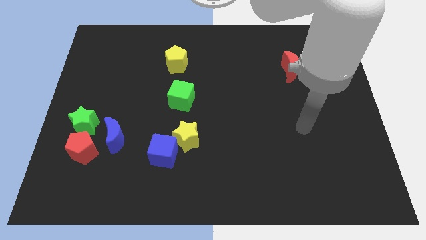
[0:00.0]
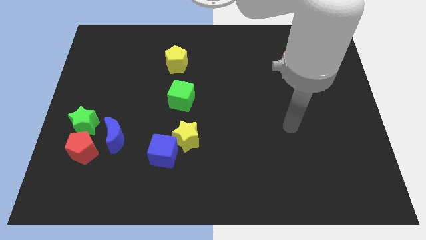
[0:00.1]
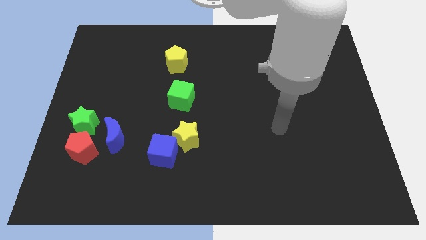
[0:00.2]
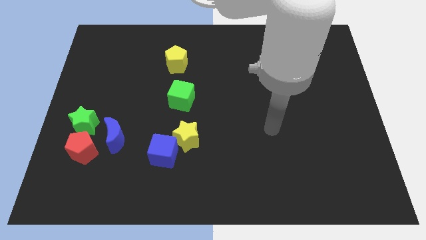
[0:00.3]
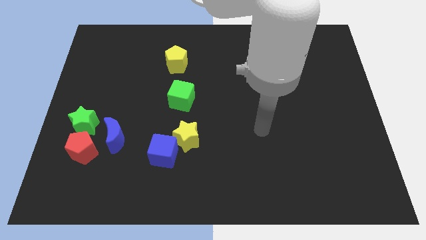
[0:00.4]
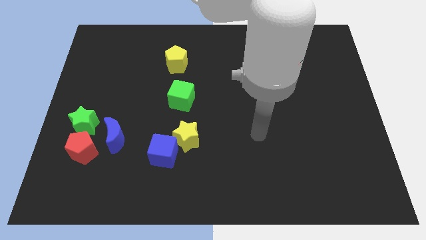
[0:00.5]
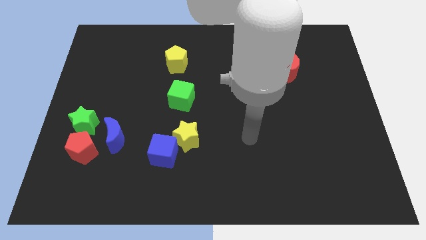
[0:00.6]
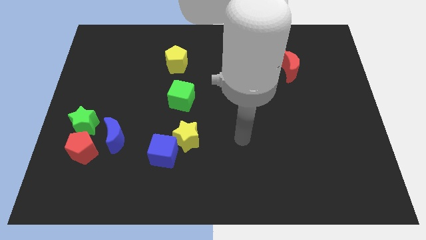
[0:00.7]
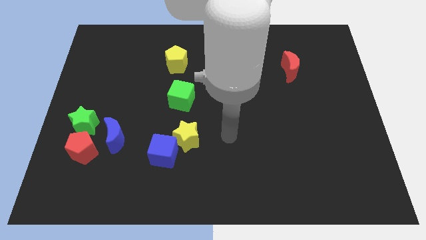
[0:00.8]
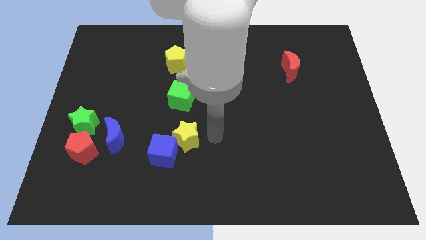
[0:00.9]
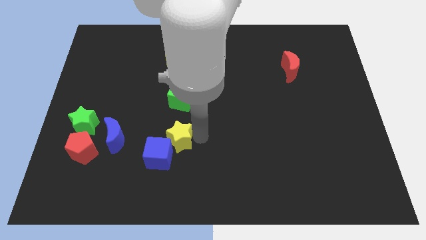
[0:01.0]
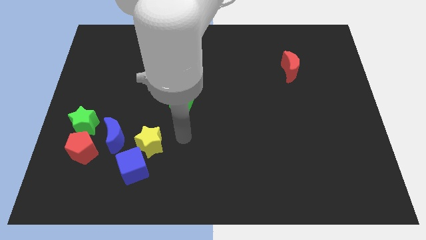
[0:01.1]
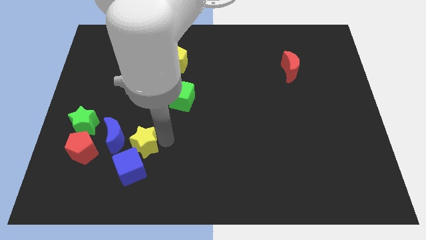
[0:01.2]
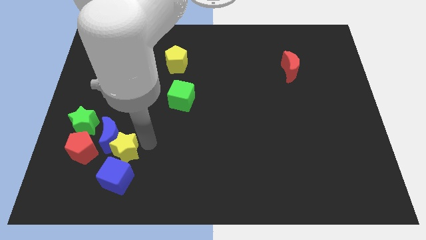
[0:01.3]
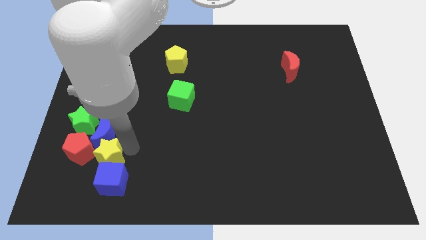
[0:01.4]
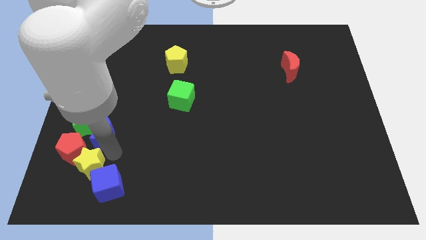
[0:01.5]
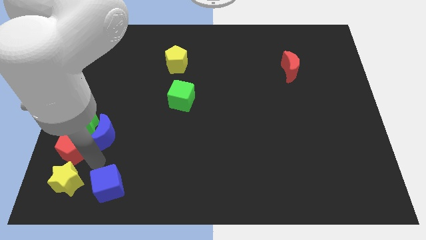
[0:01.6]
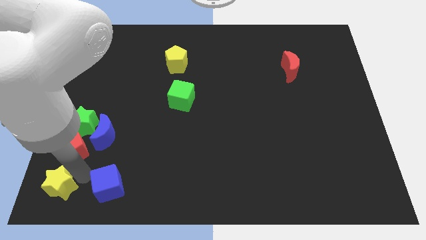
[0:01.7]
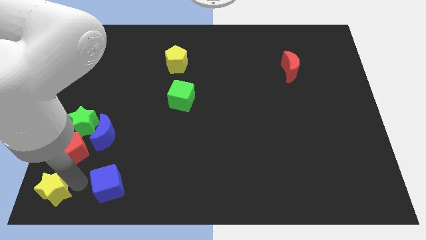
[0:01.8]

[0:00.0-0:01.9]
separate the blue cube from the yellow star

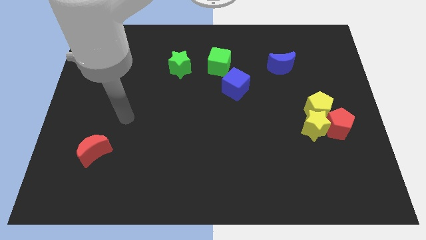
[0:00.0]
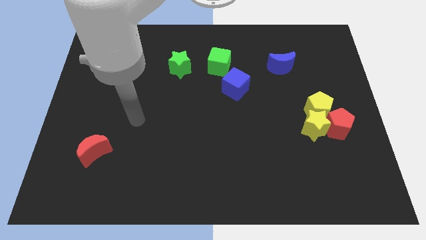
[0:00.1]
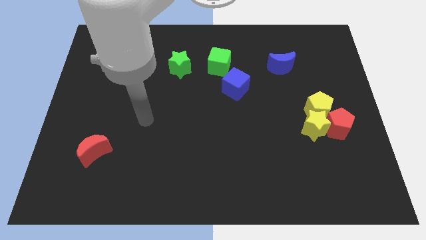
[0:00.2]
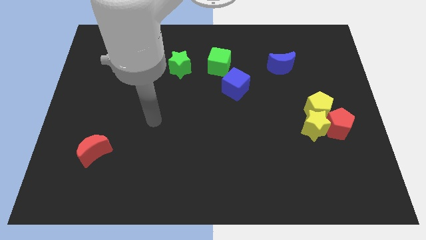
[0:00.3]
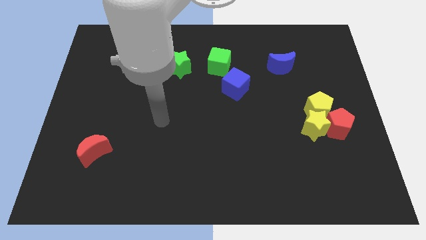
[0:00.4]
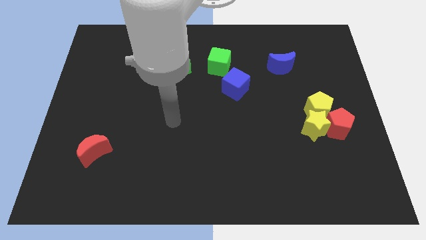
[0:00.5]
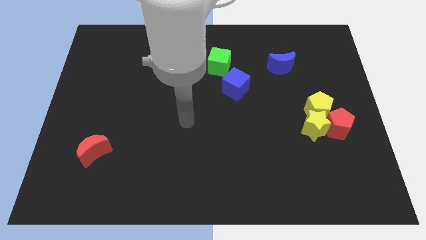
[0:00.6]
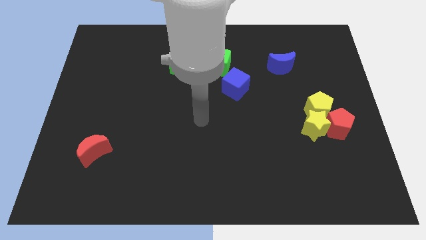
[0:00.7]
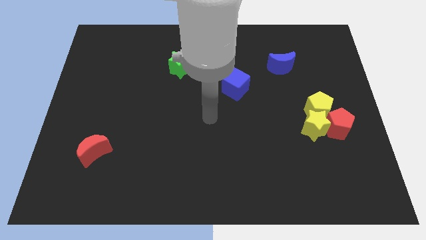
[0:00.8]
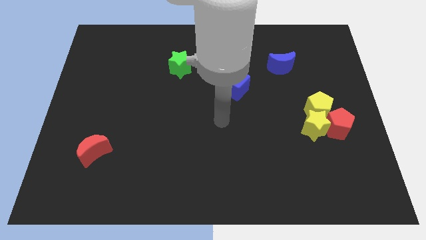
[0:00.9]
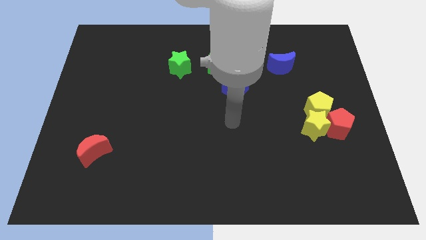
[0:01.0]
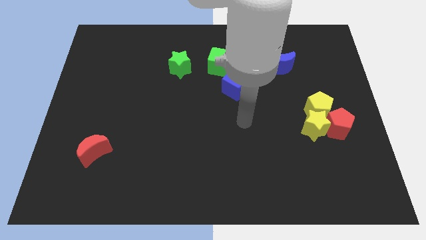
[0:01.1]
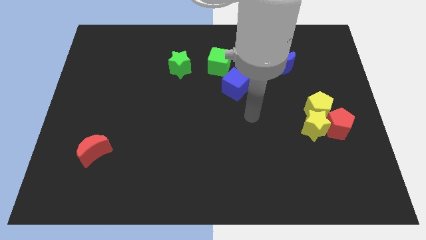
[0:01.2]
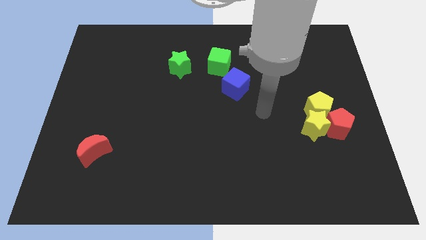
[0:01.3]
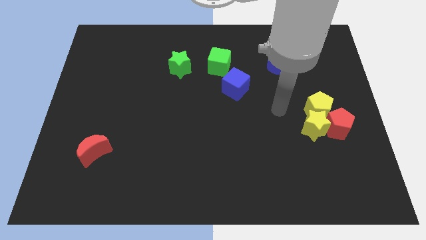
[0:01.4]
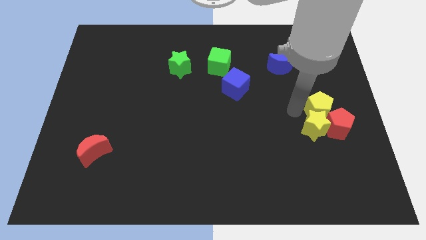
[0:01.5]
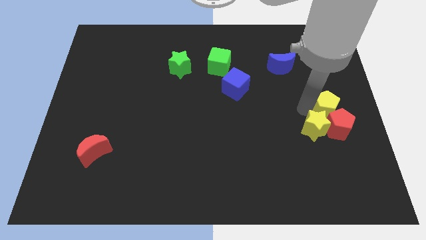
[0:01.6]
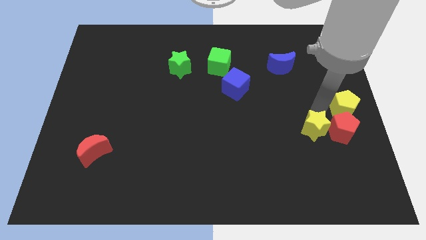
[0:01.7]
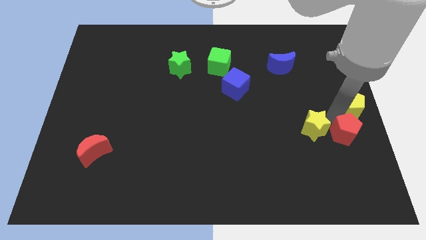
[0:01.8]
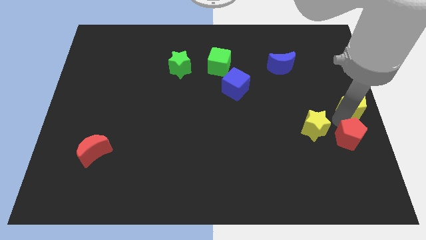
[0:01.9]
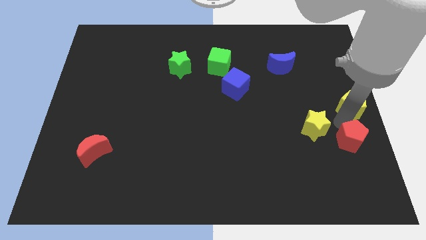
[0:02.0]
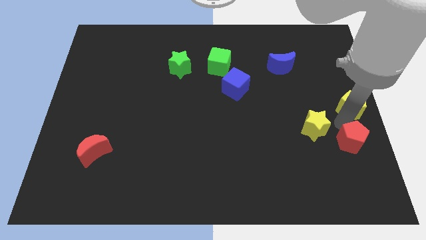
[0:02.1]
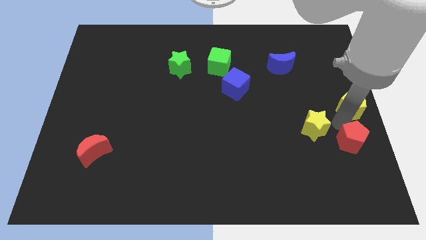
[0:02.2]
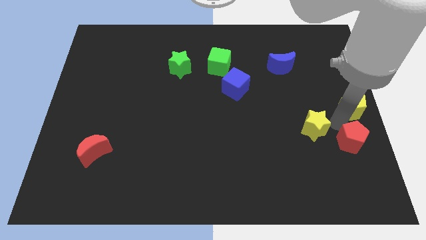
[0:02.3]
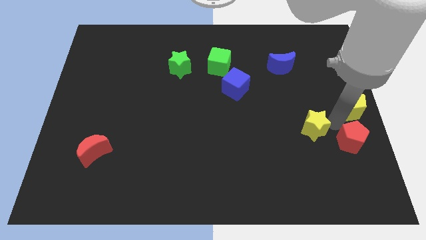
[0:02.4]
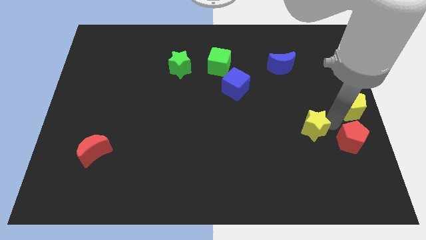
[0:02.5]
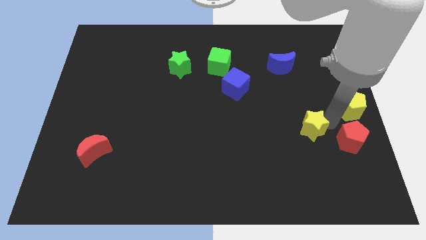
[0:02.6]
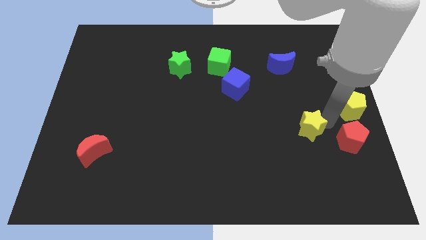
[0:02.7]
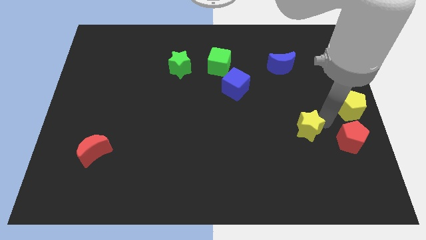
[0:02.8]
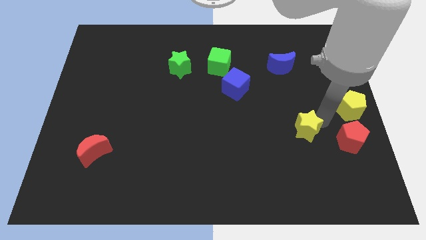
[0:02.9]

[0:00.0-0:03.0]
move the yellow star away from the yellow pentagon and red pentagon

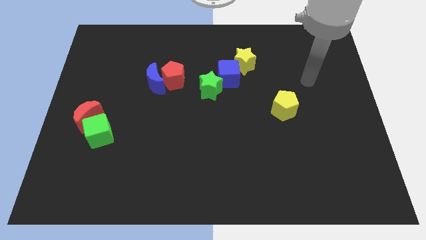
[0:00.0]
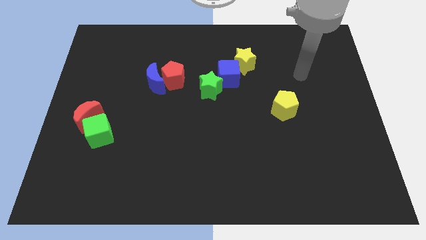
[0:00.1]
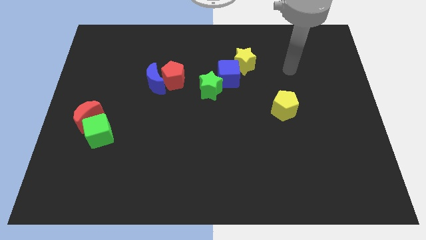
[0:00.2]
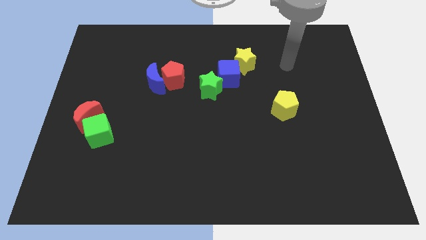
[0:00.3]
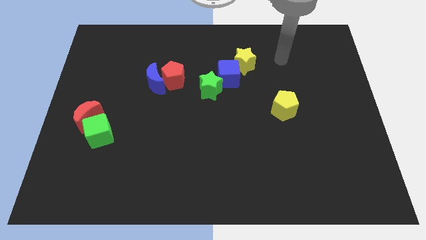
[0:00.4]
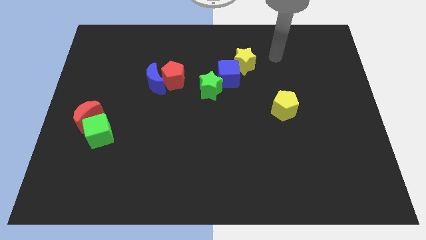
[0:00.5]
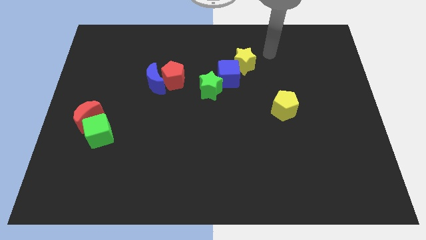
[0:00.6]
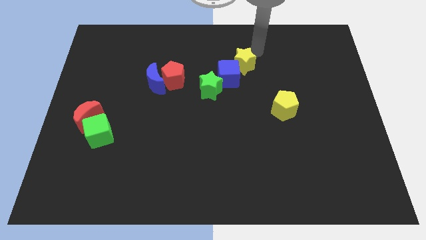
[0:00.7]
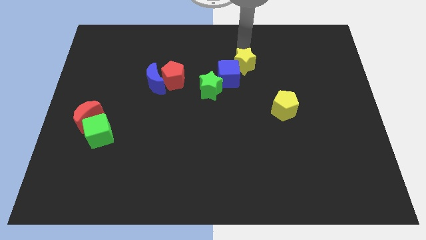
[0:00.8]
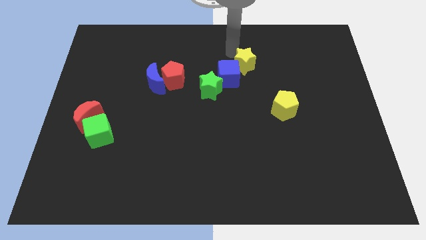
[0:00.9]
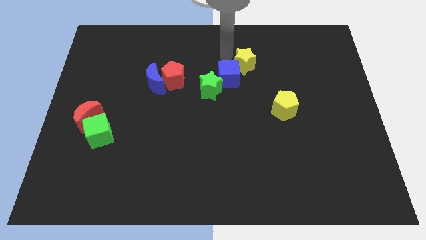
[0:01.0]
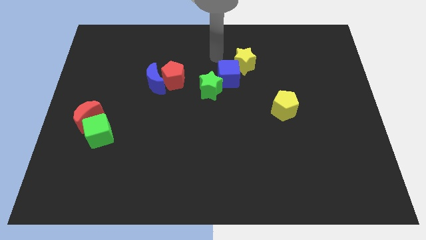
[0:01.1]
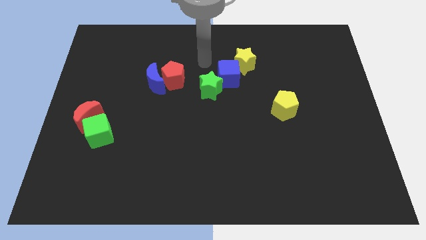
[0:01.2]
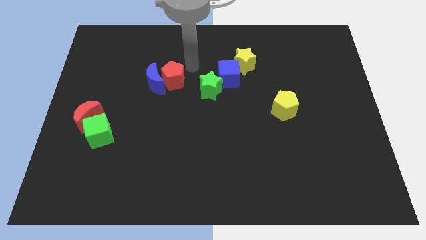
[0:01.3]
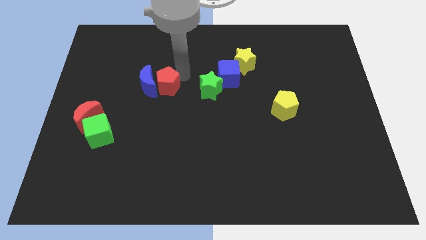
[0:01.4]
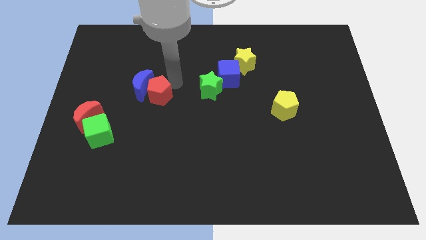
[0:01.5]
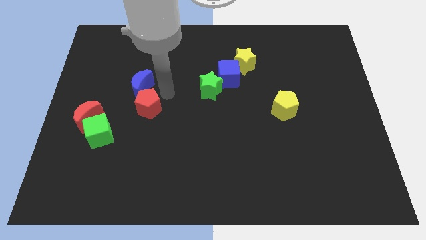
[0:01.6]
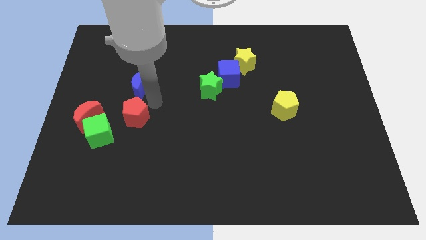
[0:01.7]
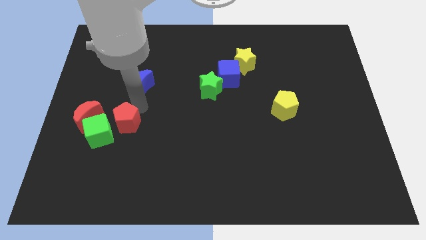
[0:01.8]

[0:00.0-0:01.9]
pull the blue moon apart from the red pentagon

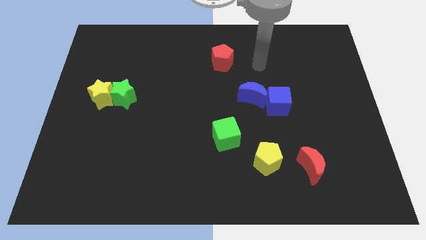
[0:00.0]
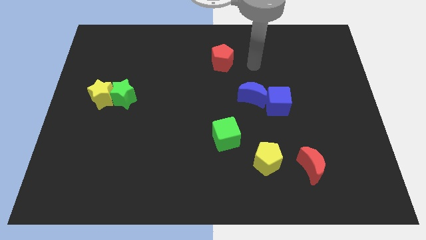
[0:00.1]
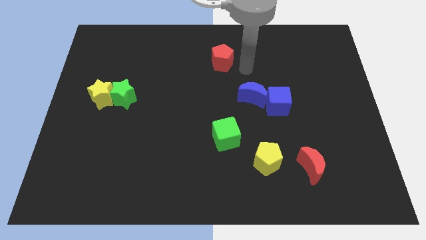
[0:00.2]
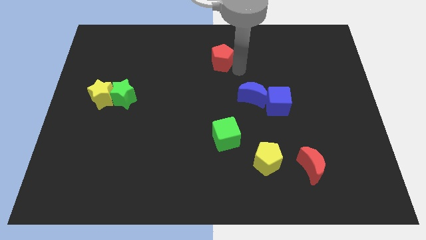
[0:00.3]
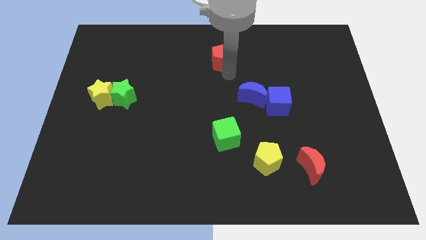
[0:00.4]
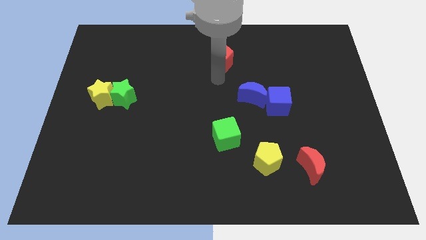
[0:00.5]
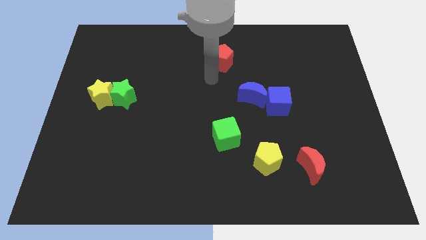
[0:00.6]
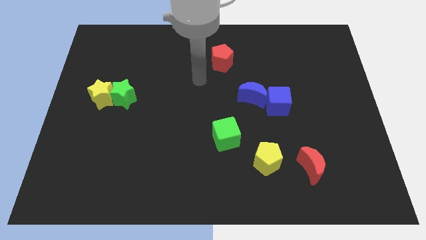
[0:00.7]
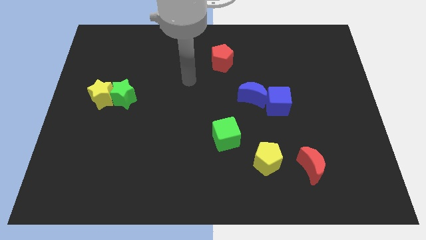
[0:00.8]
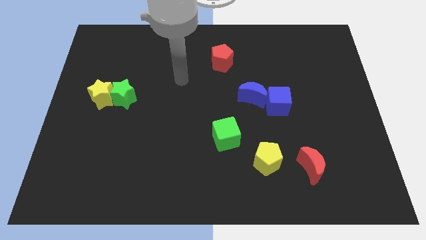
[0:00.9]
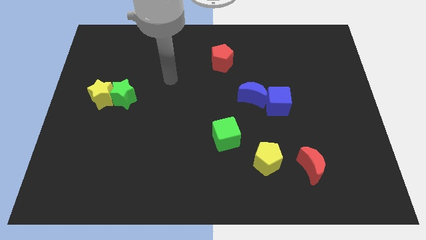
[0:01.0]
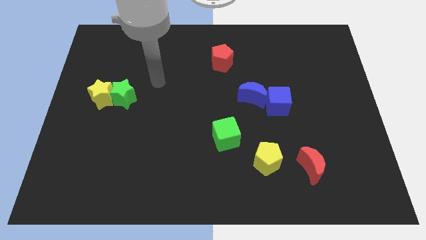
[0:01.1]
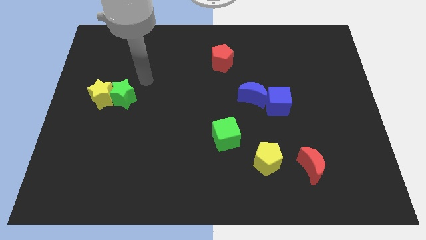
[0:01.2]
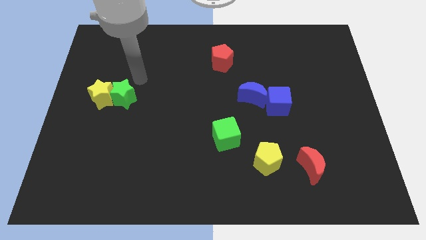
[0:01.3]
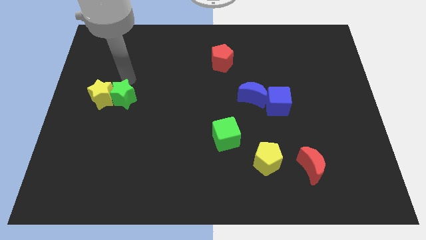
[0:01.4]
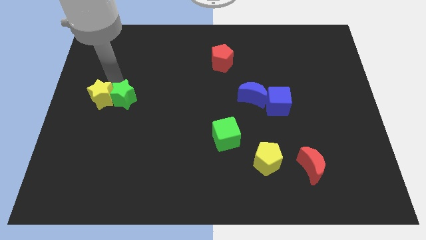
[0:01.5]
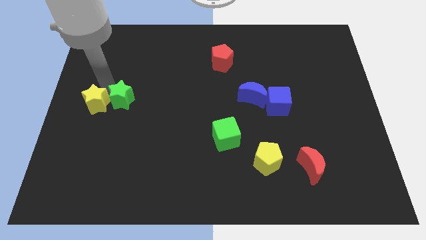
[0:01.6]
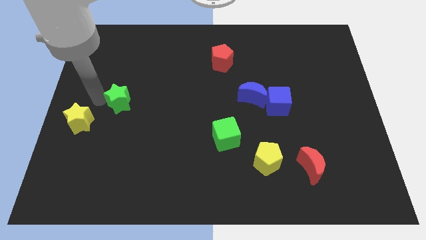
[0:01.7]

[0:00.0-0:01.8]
pull the green star apart from the yellow star

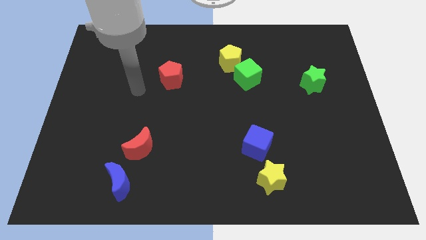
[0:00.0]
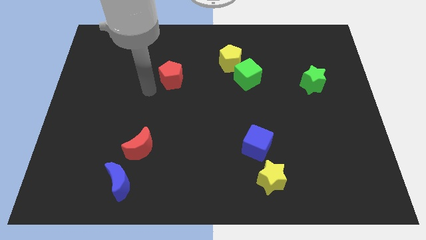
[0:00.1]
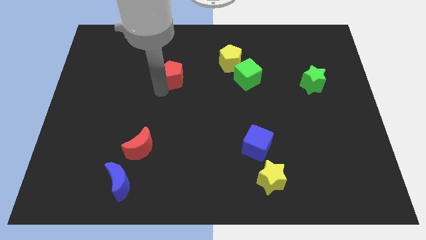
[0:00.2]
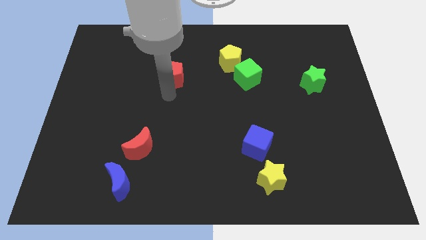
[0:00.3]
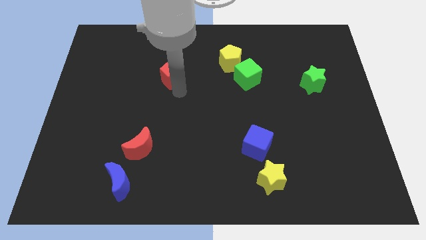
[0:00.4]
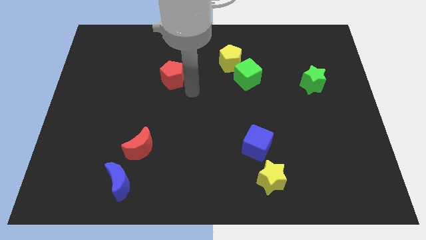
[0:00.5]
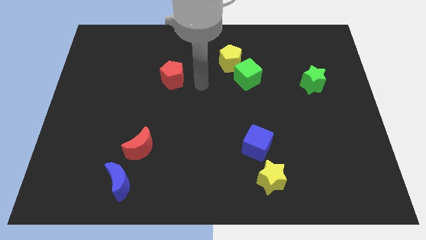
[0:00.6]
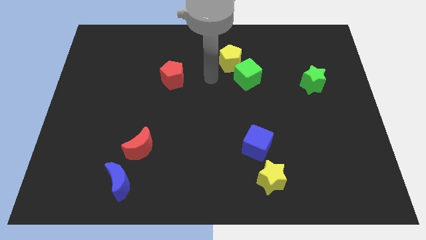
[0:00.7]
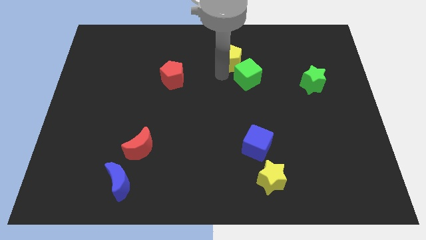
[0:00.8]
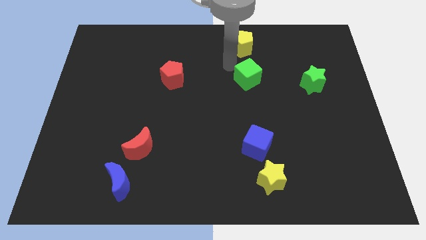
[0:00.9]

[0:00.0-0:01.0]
pull the green cube apart from the yellow pentagon
